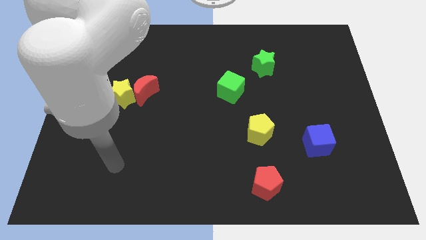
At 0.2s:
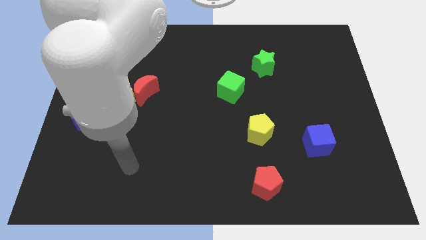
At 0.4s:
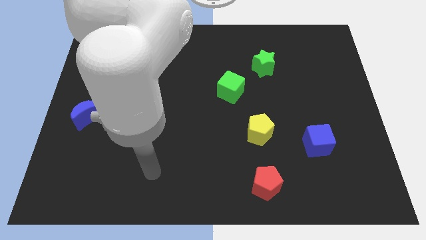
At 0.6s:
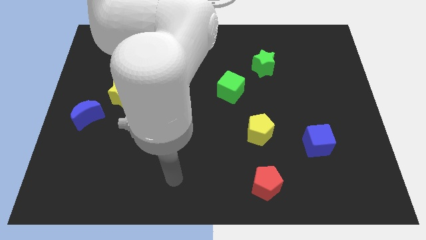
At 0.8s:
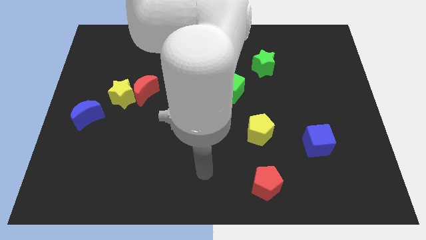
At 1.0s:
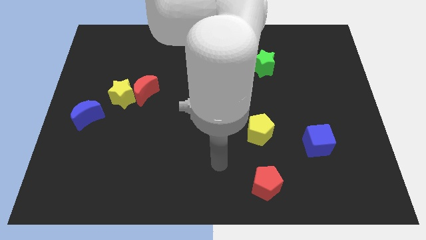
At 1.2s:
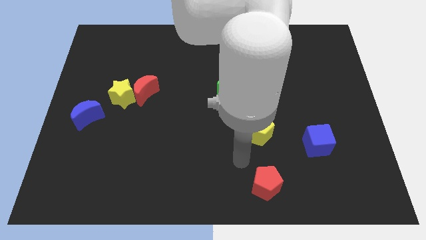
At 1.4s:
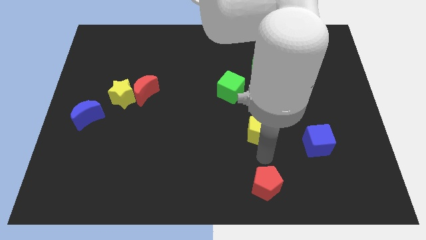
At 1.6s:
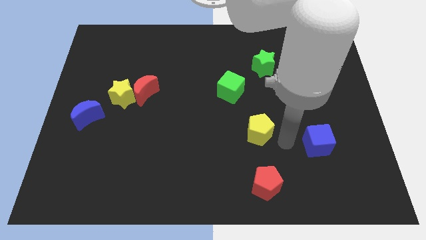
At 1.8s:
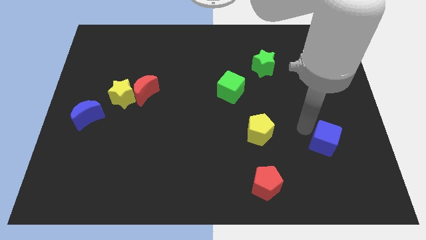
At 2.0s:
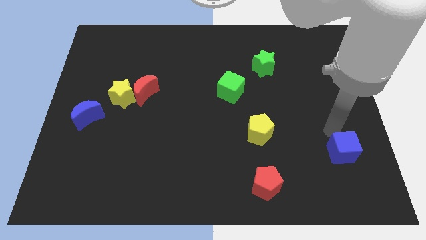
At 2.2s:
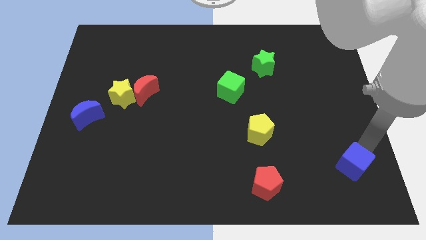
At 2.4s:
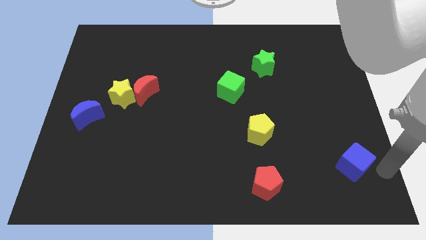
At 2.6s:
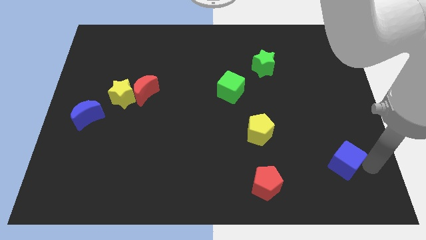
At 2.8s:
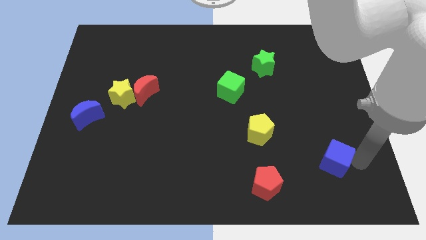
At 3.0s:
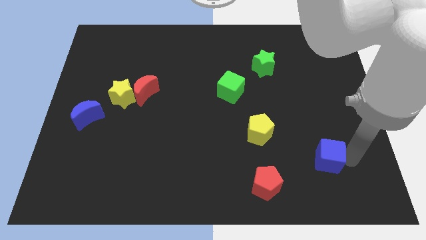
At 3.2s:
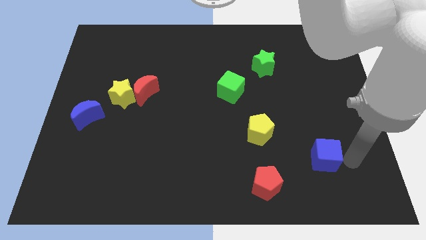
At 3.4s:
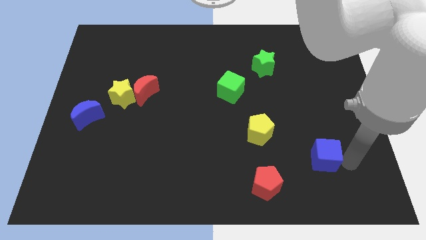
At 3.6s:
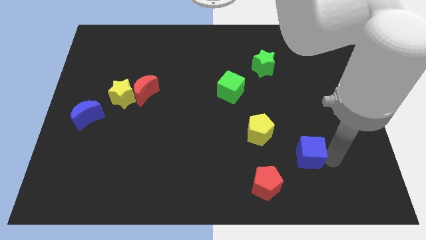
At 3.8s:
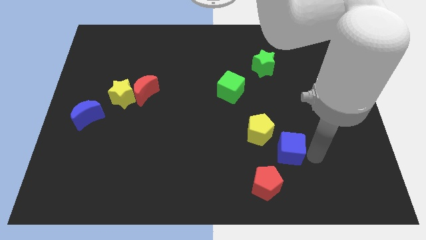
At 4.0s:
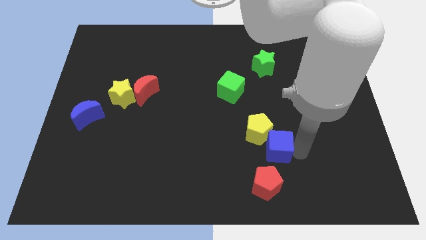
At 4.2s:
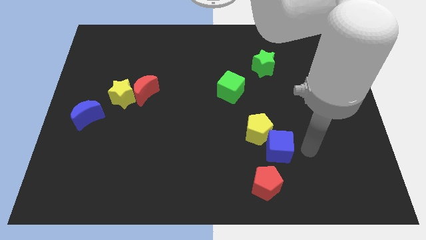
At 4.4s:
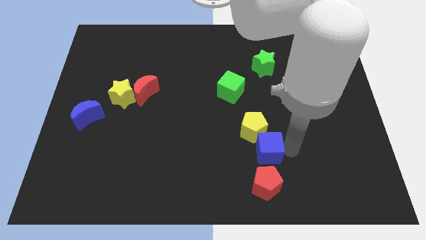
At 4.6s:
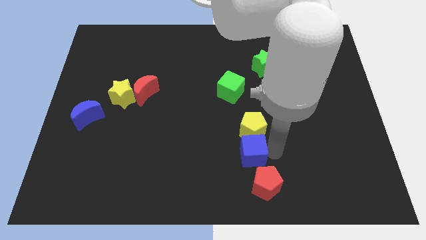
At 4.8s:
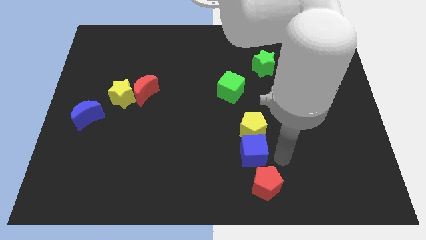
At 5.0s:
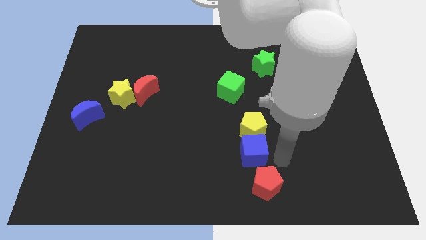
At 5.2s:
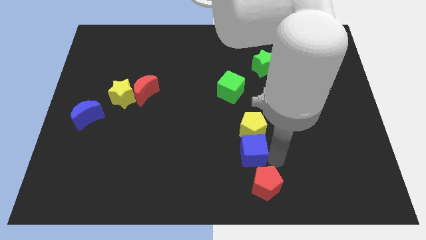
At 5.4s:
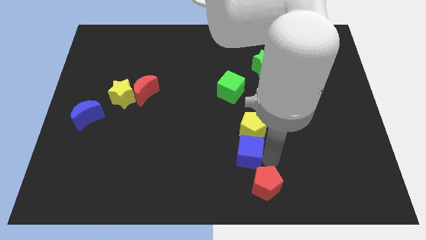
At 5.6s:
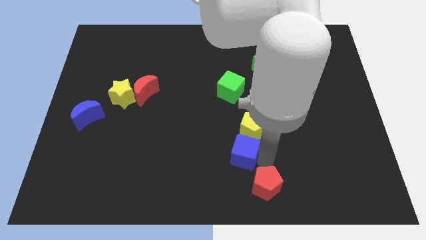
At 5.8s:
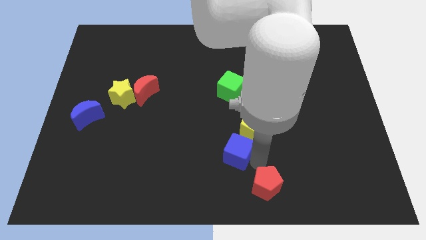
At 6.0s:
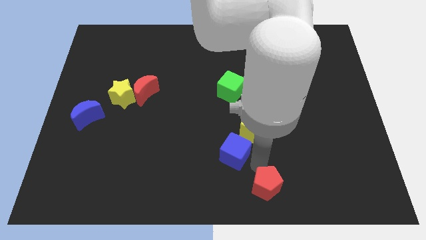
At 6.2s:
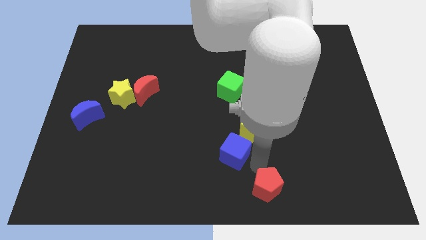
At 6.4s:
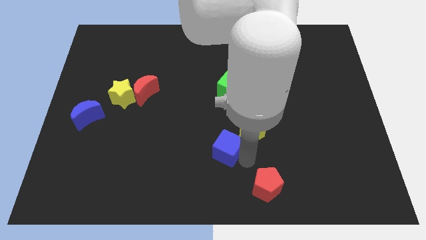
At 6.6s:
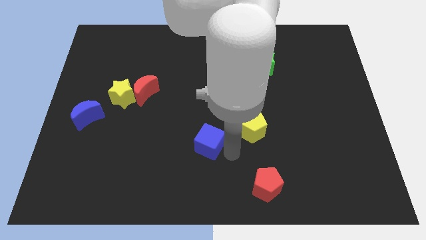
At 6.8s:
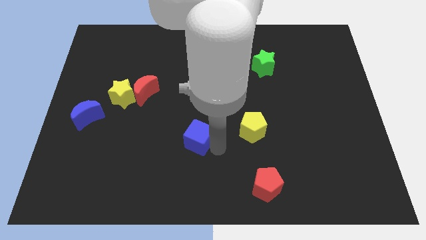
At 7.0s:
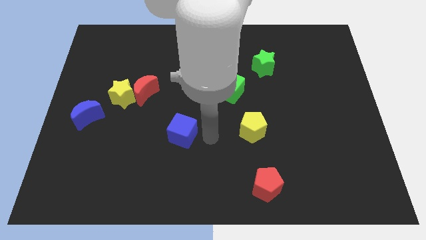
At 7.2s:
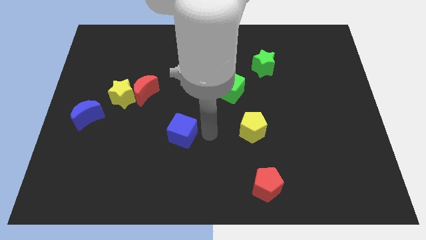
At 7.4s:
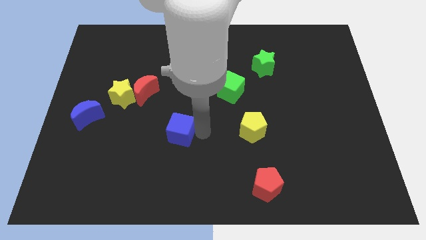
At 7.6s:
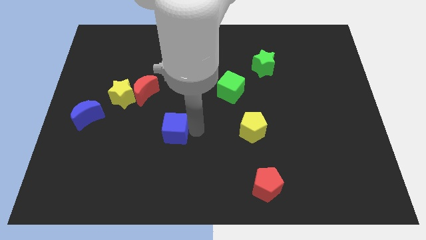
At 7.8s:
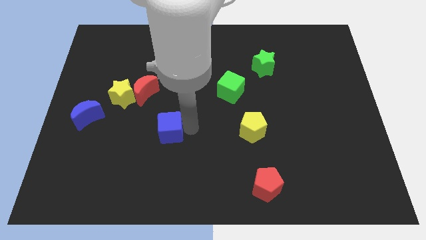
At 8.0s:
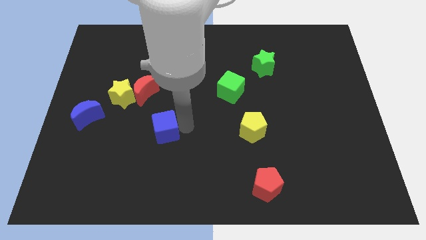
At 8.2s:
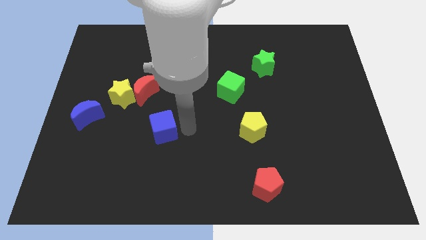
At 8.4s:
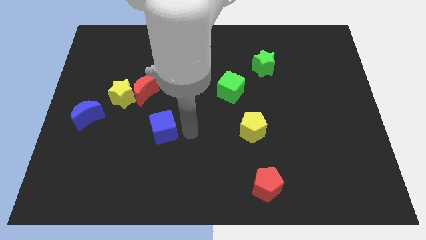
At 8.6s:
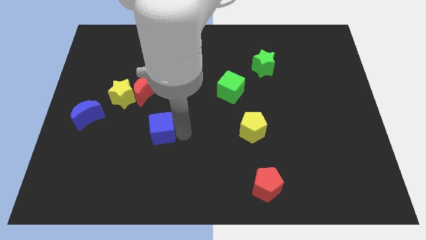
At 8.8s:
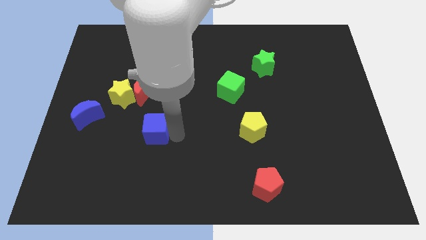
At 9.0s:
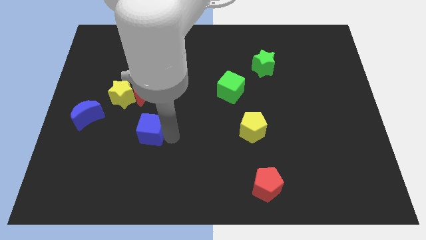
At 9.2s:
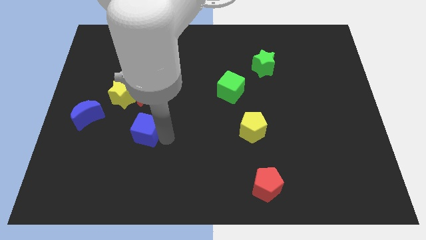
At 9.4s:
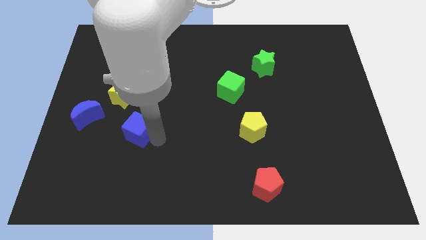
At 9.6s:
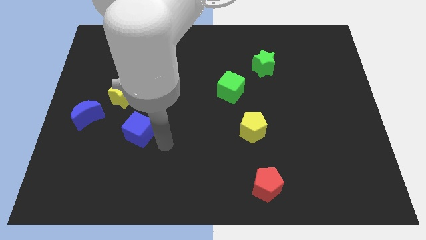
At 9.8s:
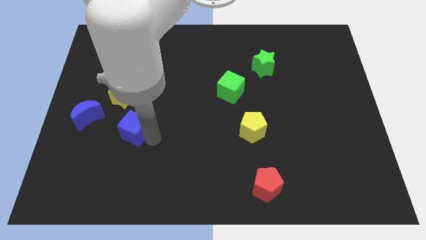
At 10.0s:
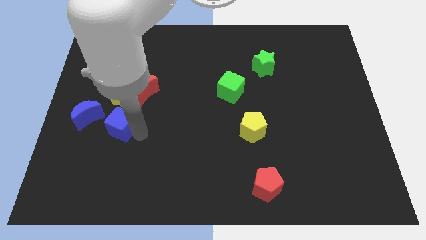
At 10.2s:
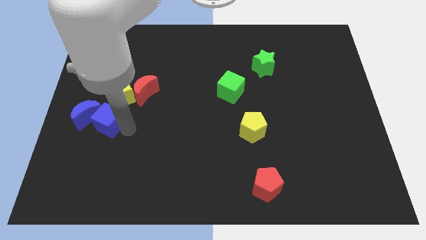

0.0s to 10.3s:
put the blue cube towards the blue moon

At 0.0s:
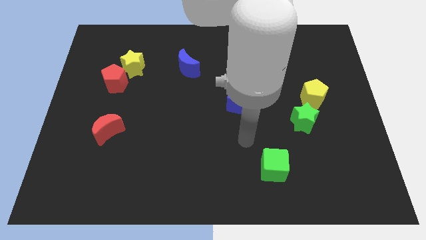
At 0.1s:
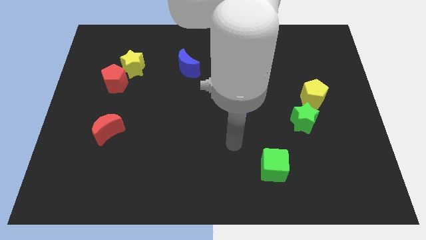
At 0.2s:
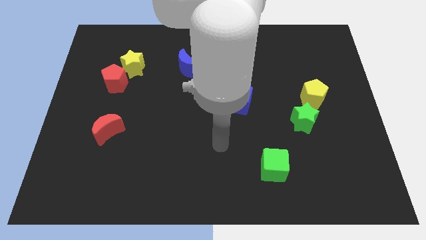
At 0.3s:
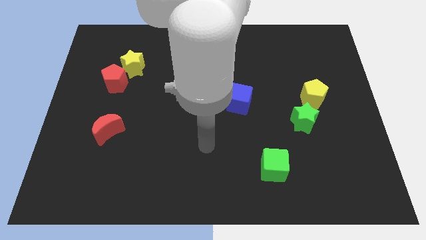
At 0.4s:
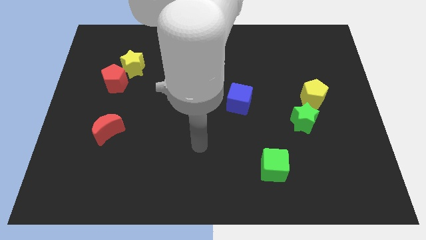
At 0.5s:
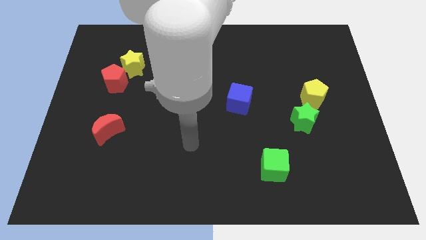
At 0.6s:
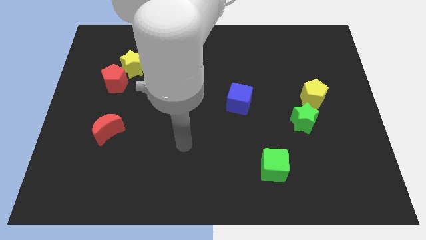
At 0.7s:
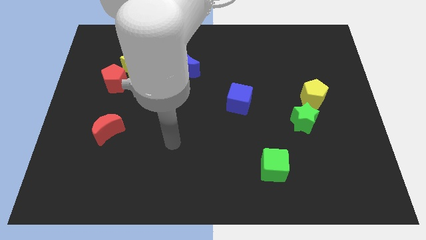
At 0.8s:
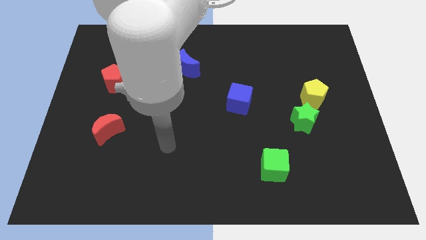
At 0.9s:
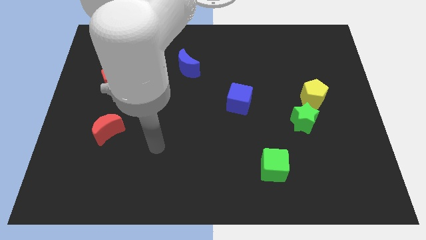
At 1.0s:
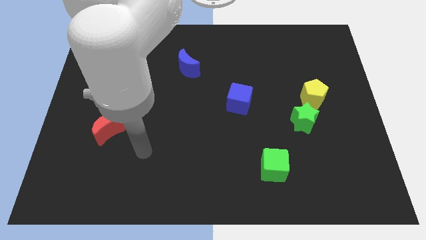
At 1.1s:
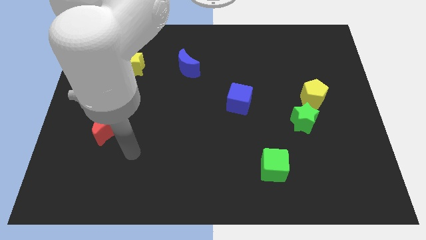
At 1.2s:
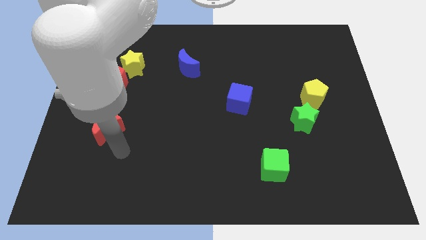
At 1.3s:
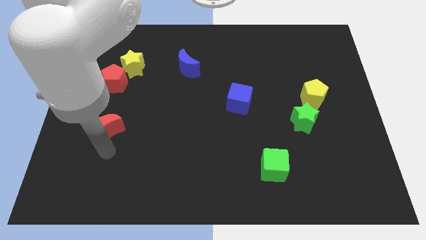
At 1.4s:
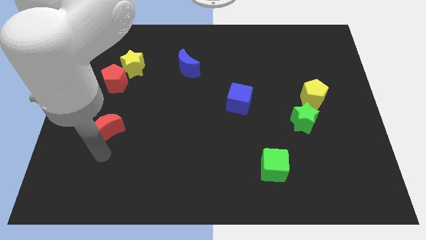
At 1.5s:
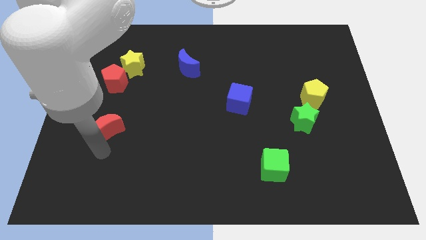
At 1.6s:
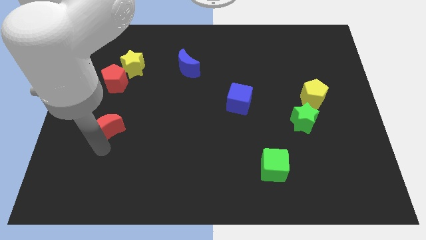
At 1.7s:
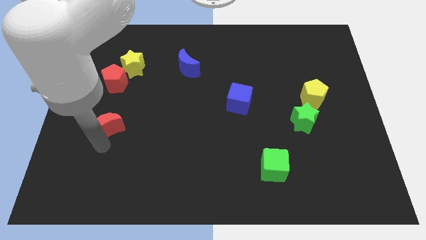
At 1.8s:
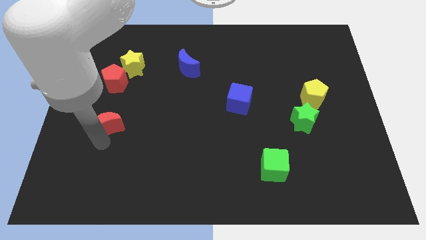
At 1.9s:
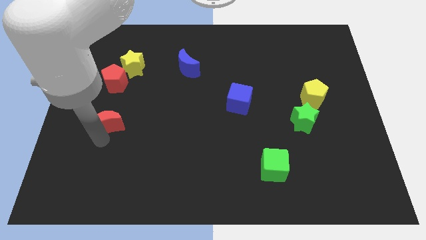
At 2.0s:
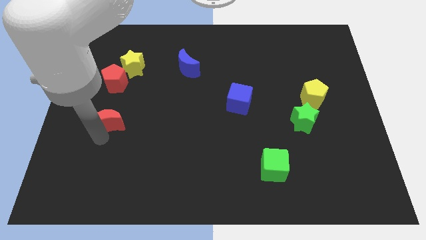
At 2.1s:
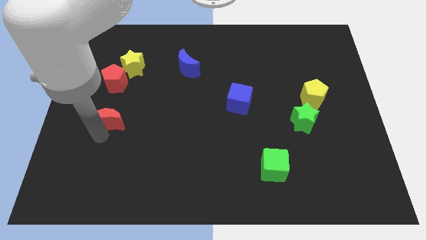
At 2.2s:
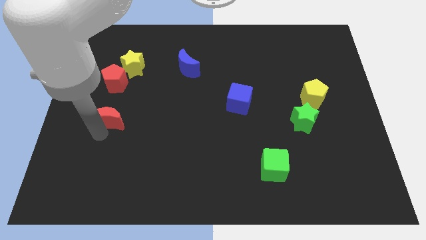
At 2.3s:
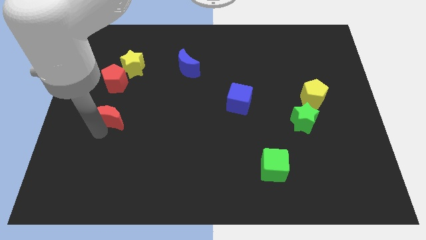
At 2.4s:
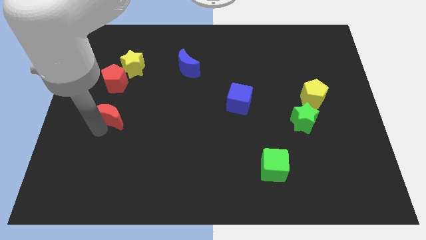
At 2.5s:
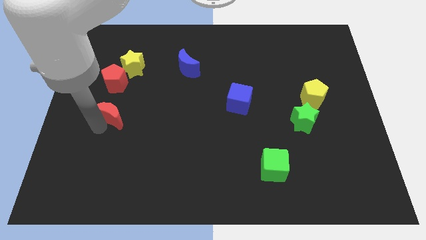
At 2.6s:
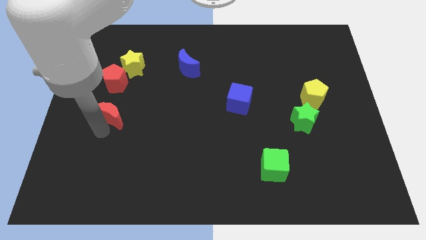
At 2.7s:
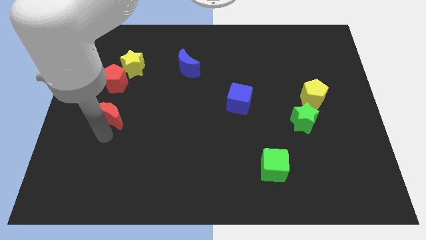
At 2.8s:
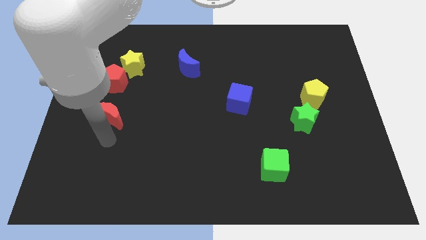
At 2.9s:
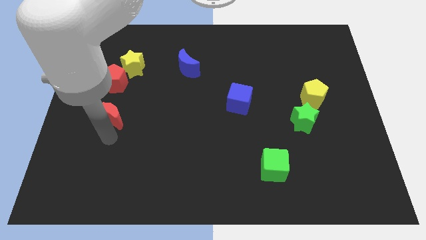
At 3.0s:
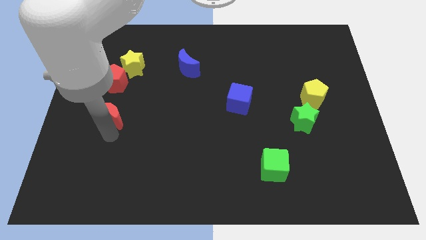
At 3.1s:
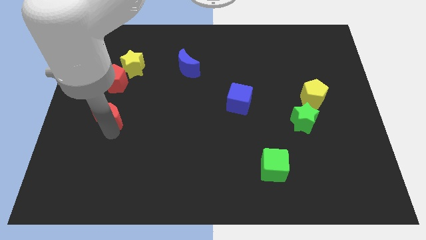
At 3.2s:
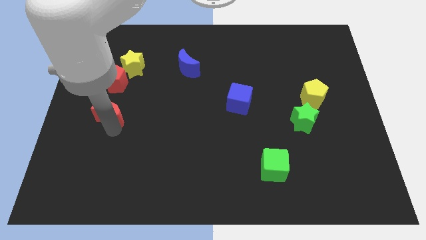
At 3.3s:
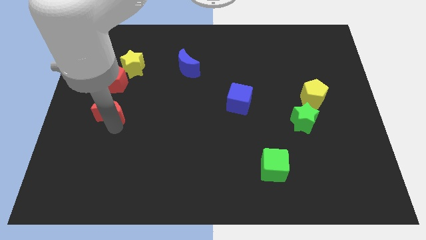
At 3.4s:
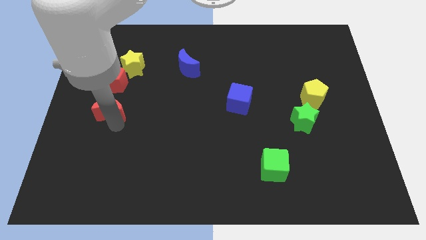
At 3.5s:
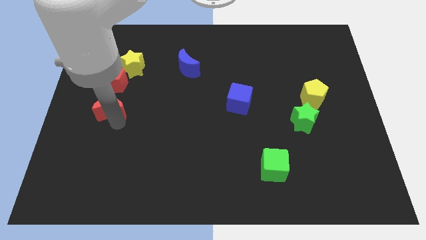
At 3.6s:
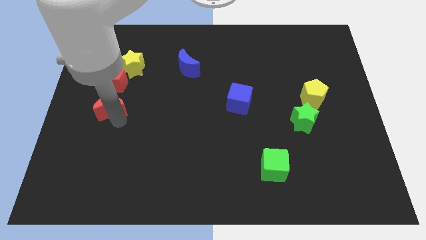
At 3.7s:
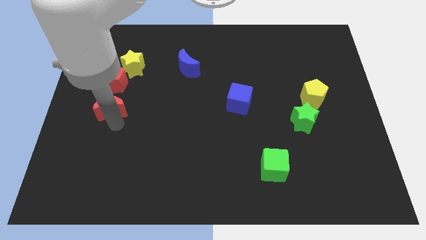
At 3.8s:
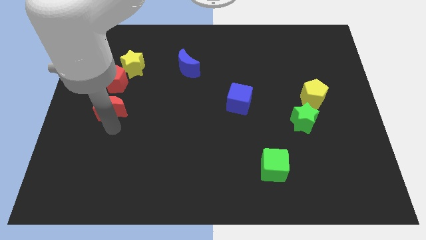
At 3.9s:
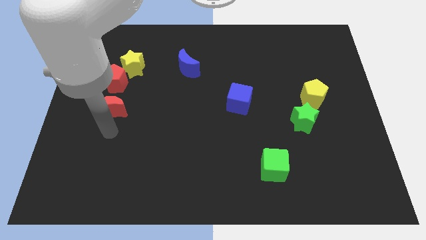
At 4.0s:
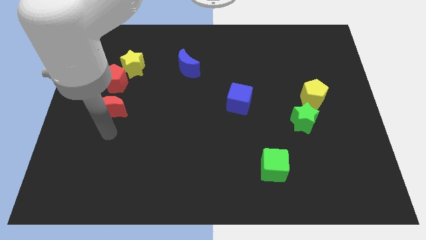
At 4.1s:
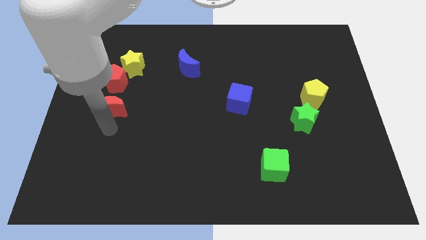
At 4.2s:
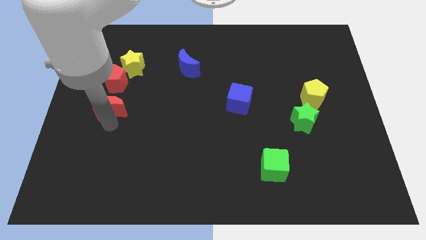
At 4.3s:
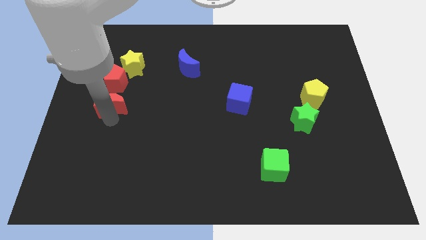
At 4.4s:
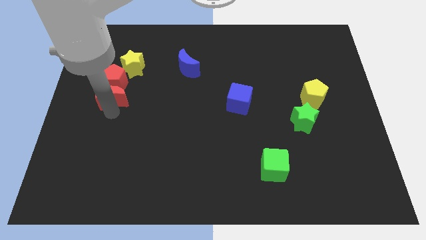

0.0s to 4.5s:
move the red moon next to the red pentagon
